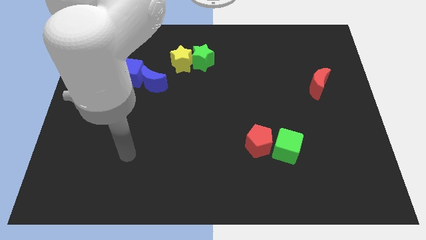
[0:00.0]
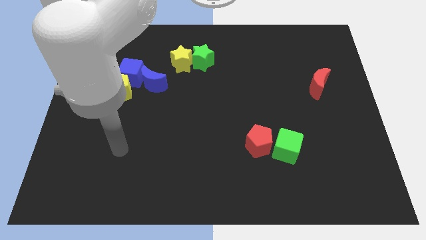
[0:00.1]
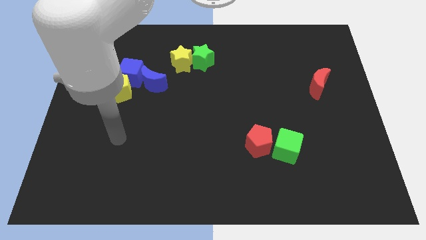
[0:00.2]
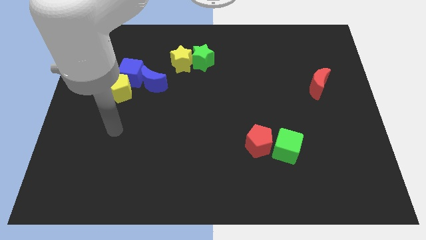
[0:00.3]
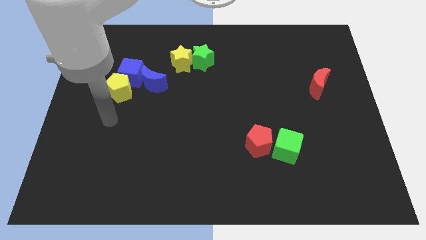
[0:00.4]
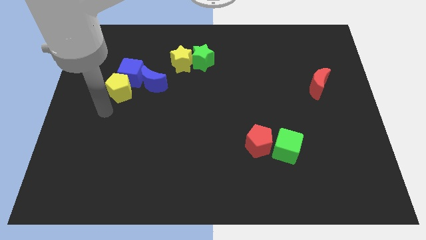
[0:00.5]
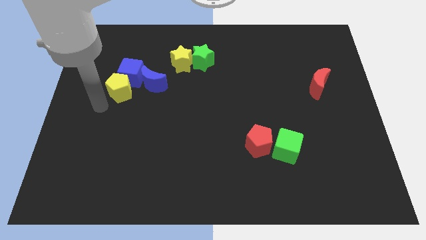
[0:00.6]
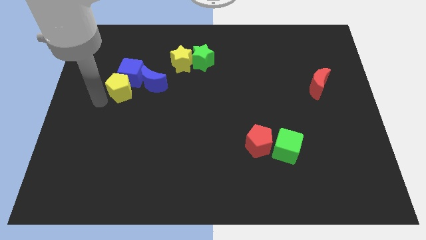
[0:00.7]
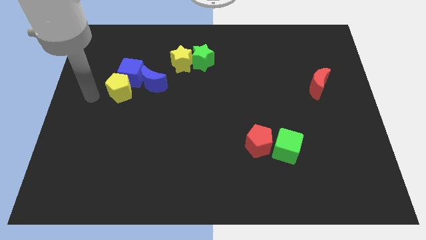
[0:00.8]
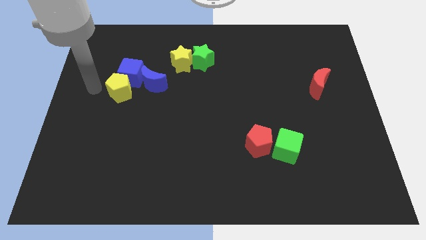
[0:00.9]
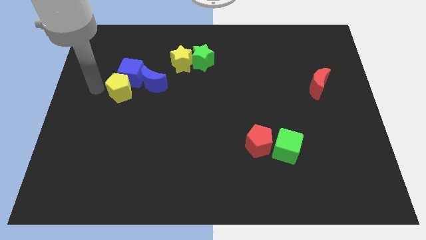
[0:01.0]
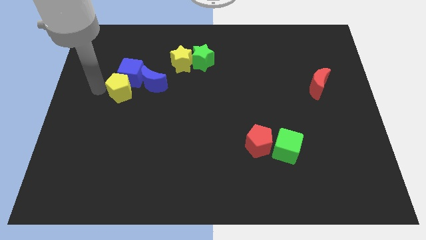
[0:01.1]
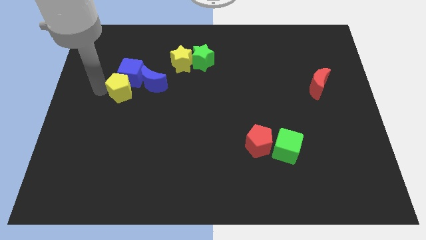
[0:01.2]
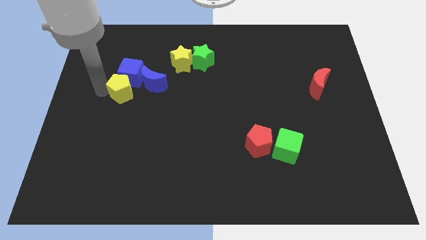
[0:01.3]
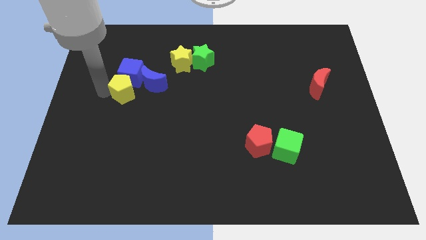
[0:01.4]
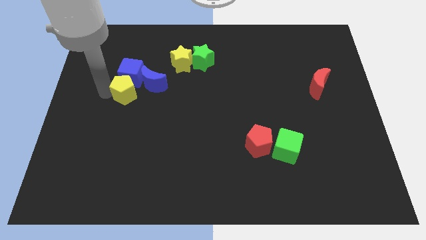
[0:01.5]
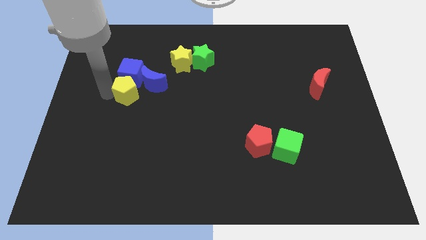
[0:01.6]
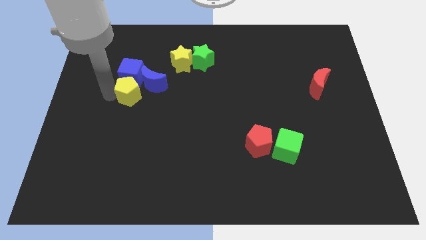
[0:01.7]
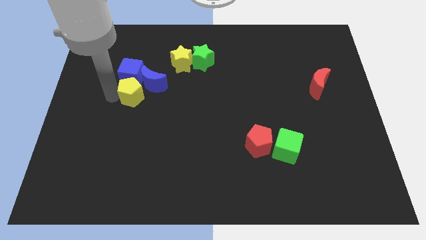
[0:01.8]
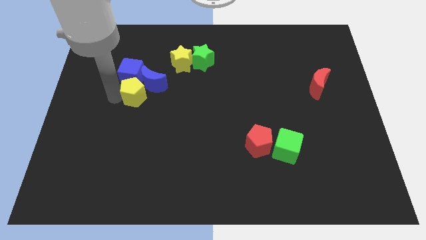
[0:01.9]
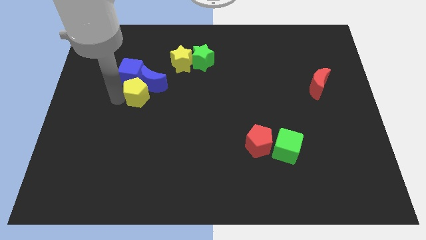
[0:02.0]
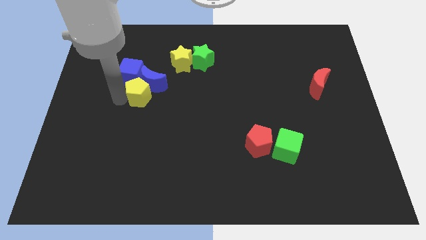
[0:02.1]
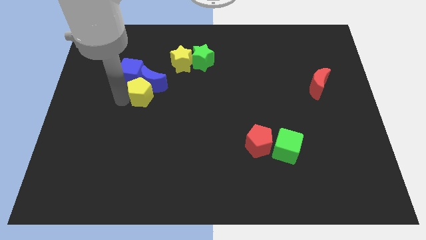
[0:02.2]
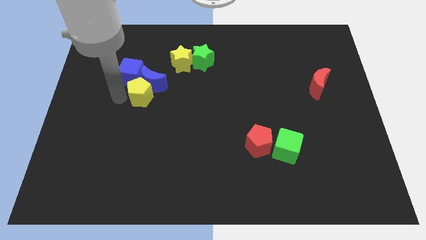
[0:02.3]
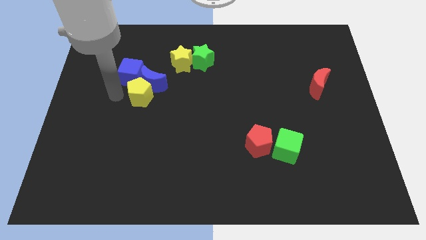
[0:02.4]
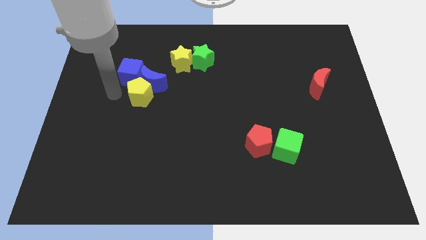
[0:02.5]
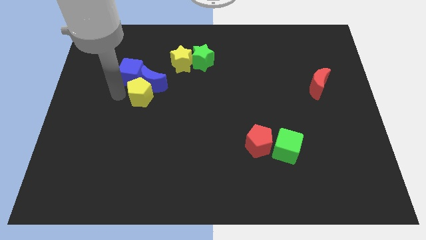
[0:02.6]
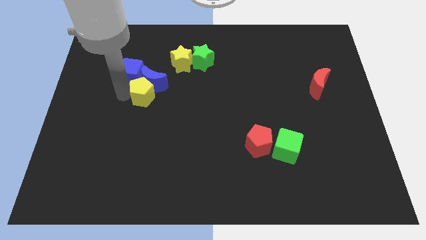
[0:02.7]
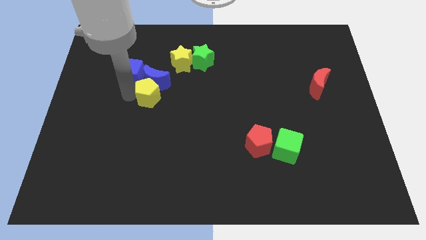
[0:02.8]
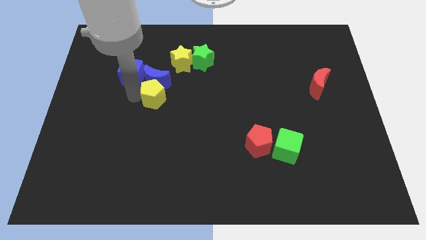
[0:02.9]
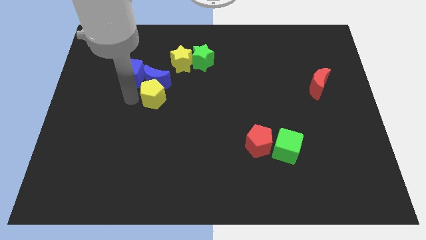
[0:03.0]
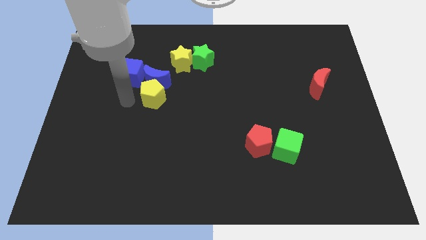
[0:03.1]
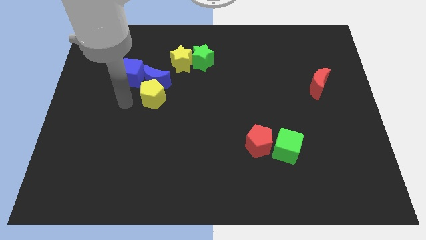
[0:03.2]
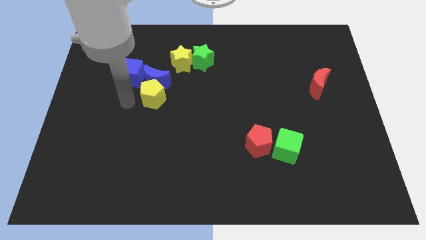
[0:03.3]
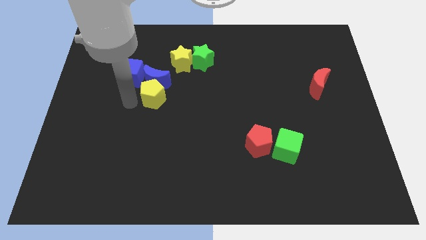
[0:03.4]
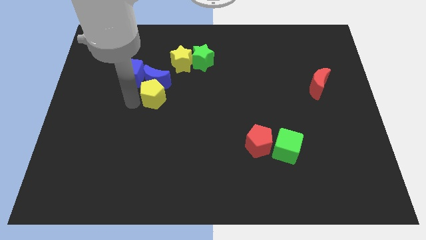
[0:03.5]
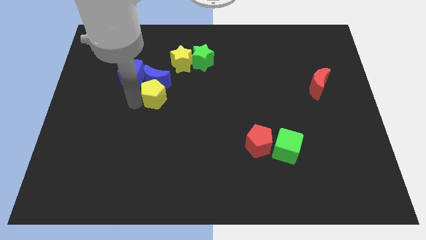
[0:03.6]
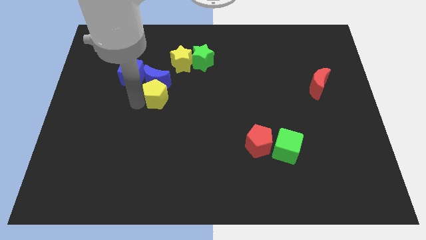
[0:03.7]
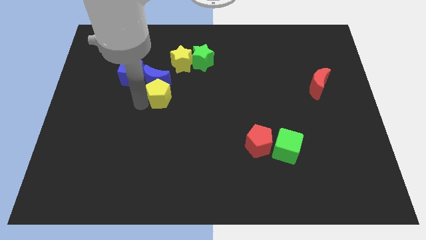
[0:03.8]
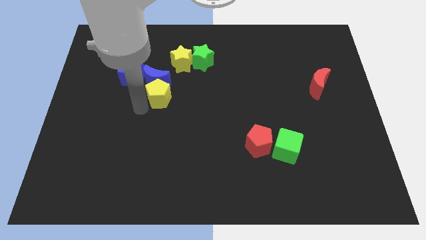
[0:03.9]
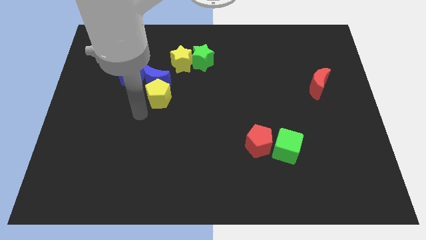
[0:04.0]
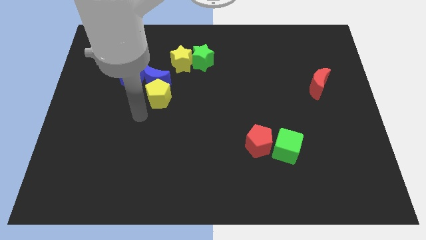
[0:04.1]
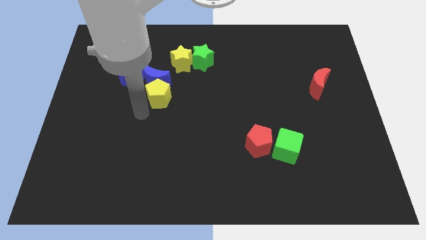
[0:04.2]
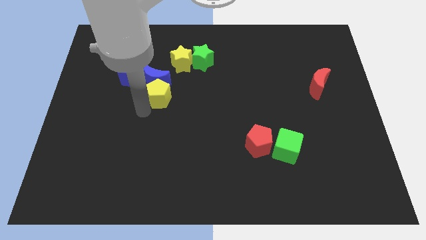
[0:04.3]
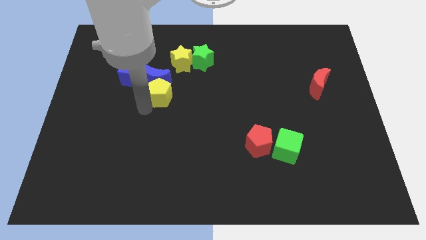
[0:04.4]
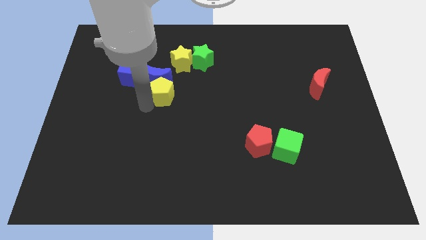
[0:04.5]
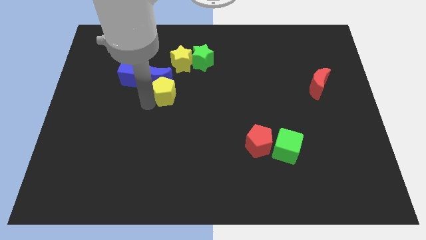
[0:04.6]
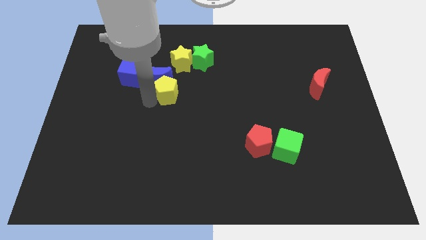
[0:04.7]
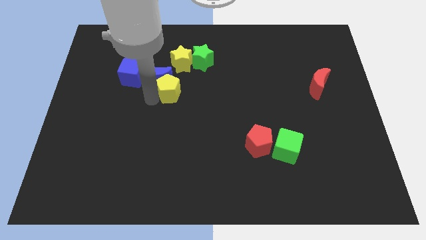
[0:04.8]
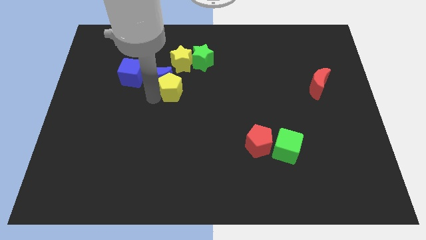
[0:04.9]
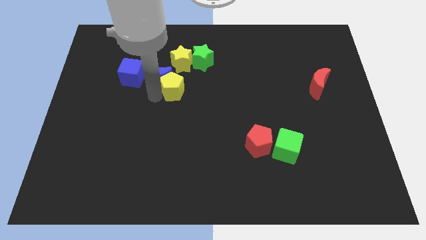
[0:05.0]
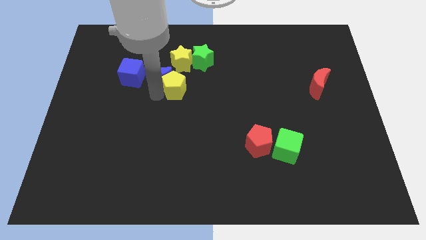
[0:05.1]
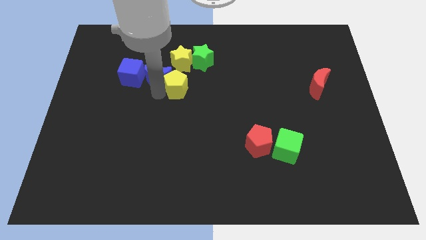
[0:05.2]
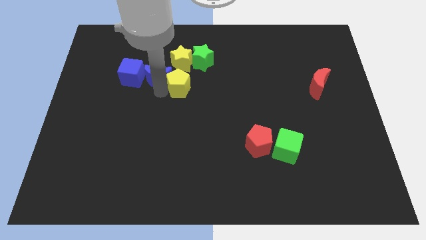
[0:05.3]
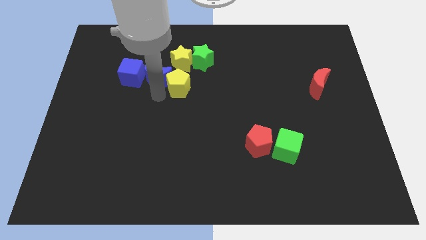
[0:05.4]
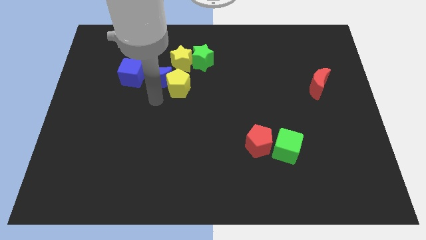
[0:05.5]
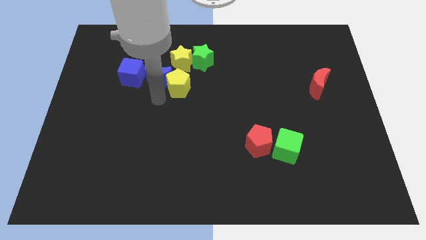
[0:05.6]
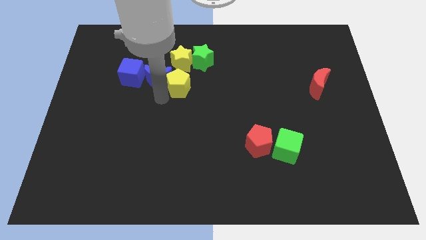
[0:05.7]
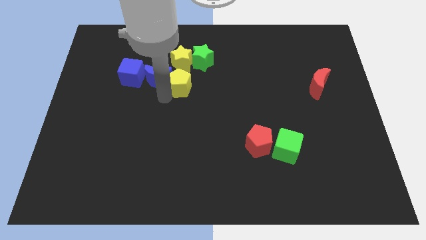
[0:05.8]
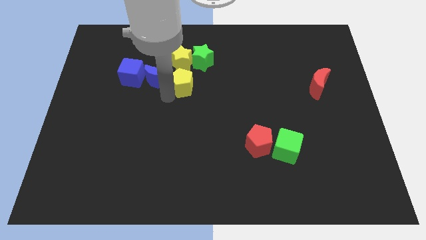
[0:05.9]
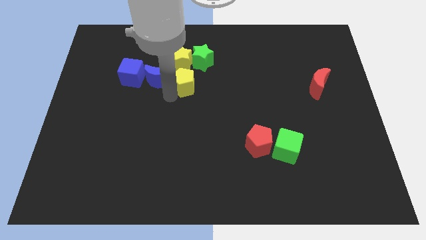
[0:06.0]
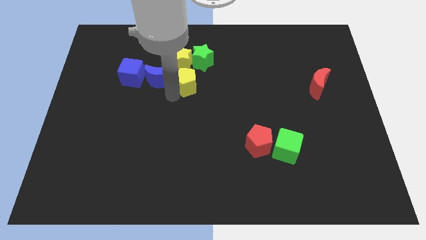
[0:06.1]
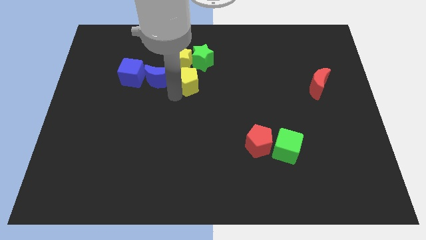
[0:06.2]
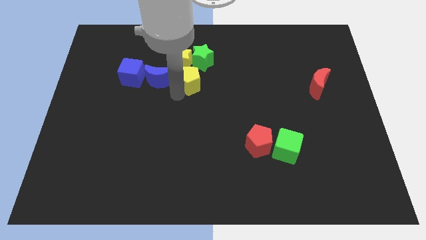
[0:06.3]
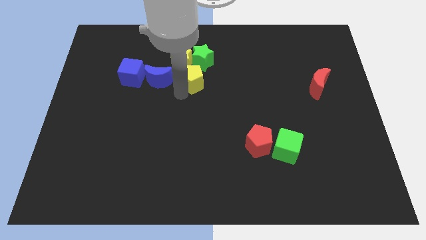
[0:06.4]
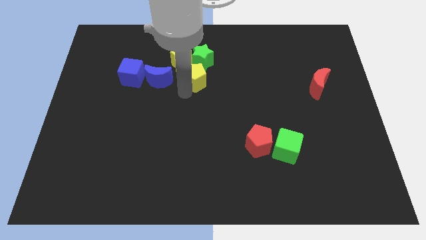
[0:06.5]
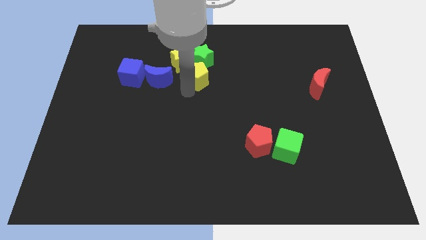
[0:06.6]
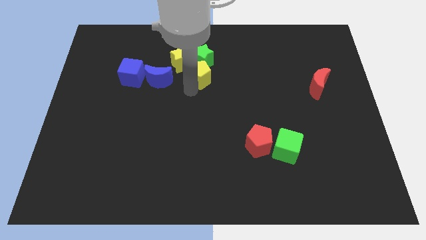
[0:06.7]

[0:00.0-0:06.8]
put the yellow pentagon next to the green star
